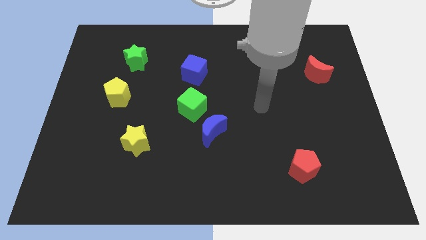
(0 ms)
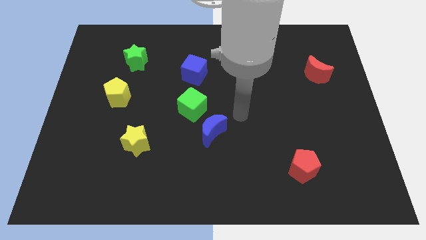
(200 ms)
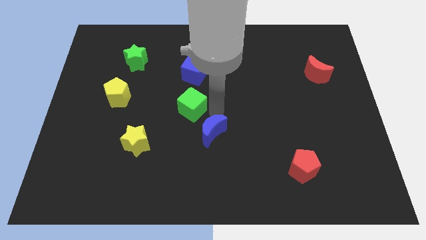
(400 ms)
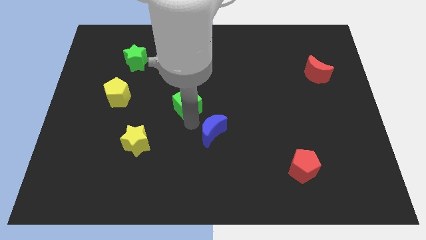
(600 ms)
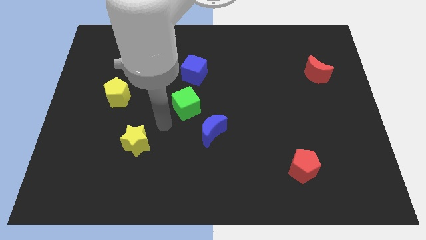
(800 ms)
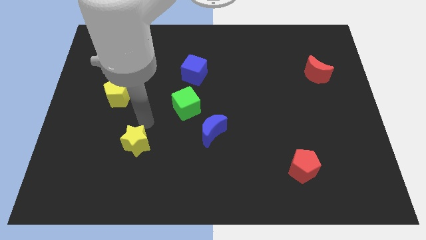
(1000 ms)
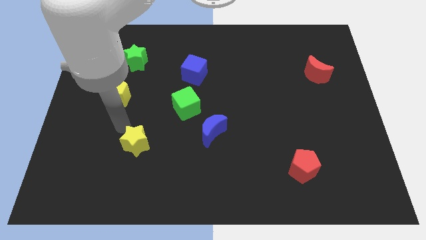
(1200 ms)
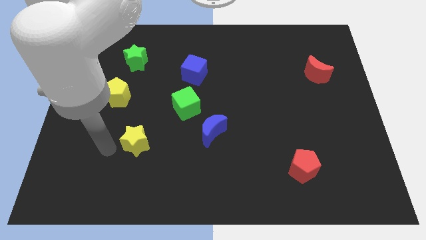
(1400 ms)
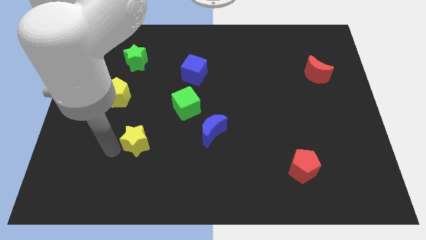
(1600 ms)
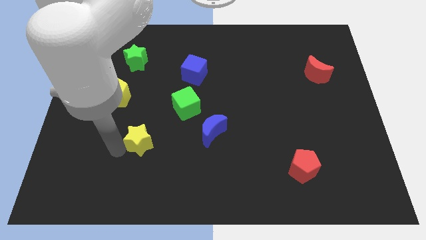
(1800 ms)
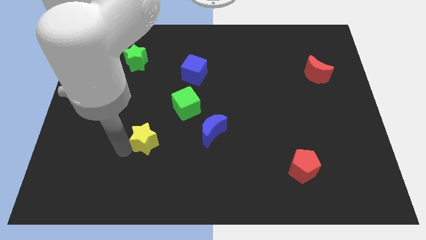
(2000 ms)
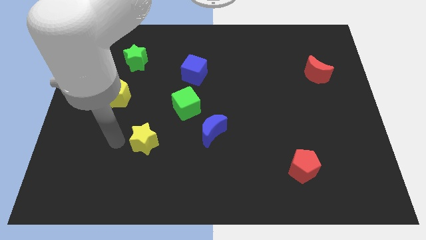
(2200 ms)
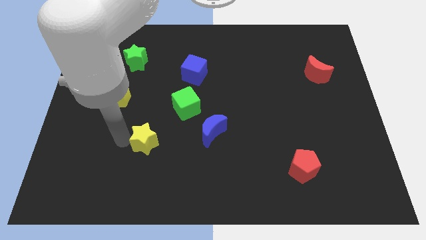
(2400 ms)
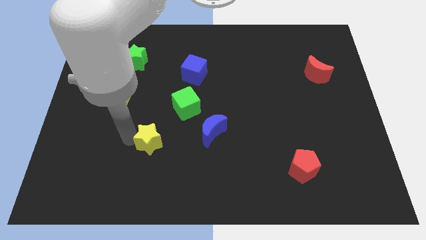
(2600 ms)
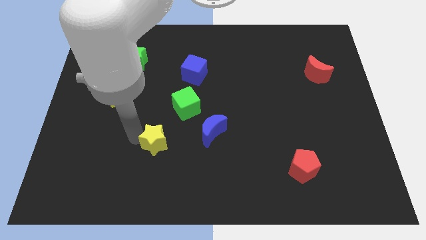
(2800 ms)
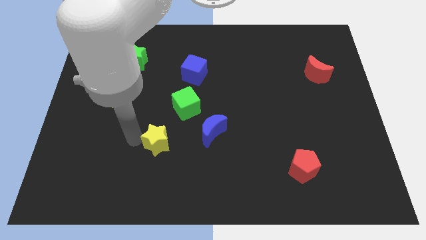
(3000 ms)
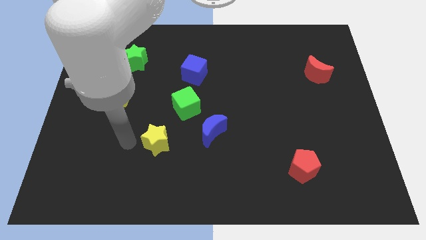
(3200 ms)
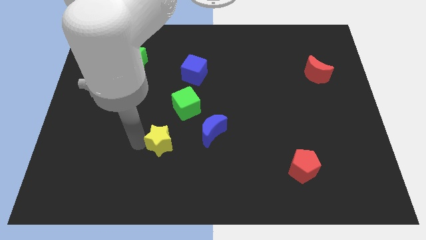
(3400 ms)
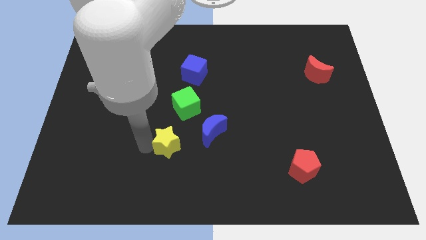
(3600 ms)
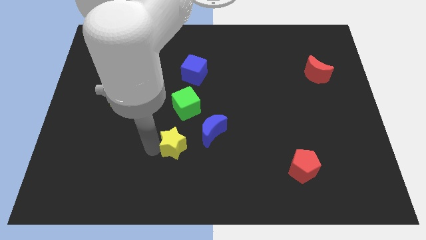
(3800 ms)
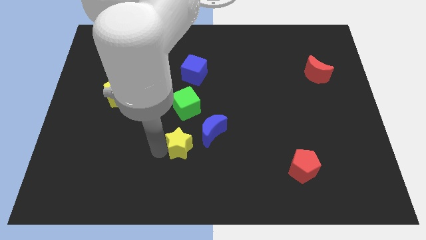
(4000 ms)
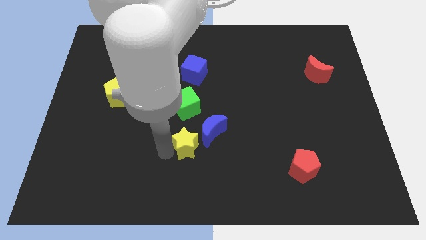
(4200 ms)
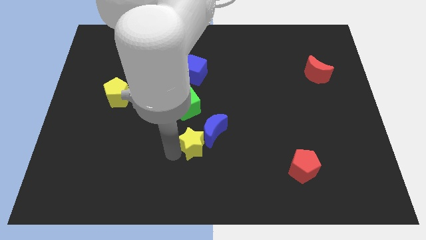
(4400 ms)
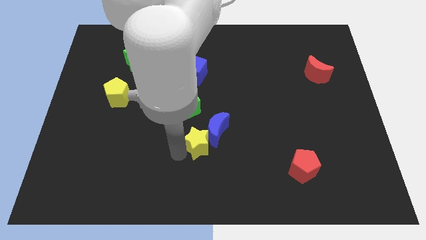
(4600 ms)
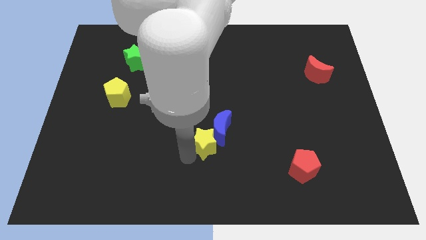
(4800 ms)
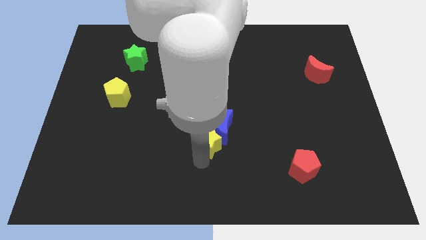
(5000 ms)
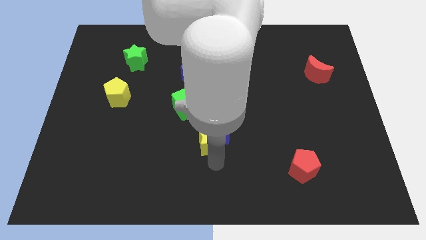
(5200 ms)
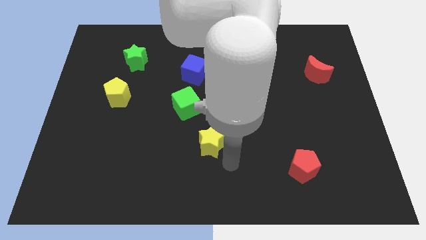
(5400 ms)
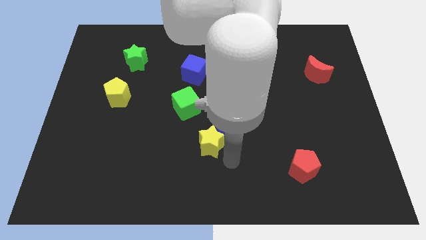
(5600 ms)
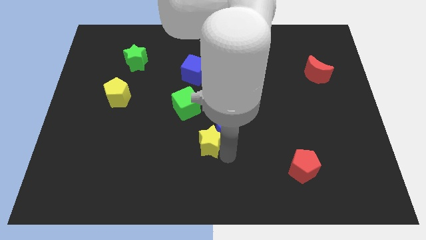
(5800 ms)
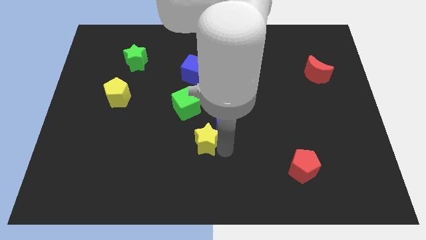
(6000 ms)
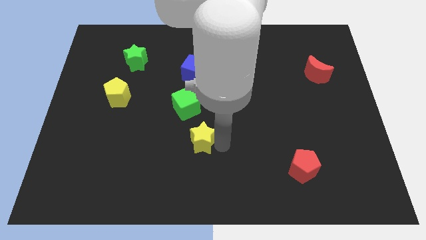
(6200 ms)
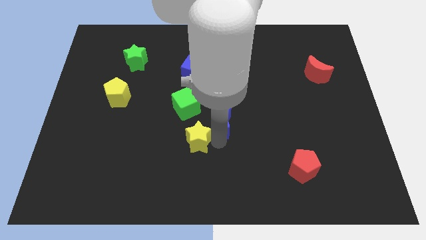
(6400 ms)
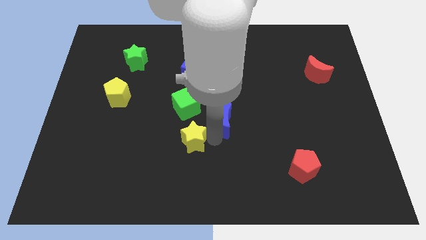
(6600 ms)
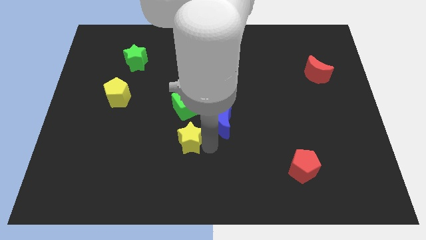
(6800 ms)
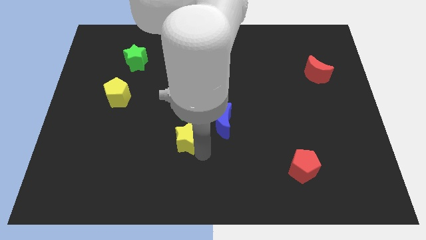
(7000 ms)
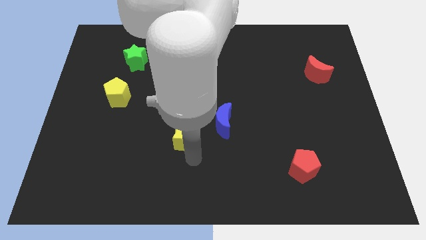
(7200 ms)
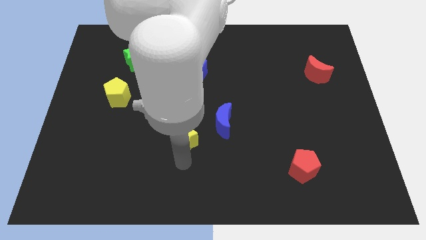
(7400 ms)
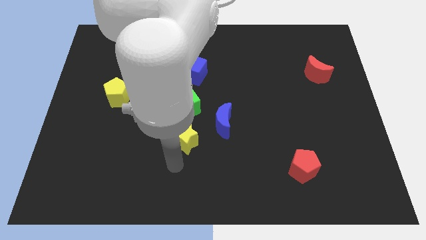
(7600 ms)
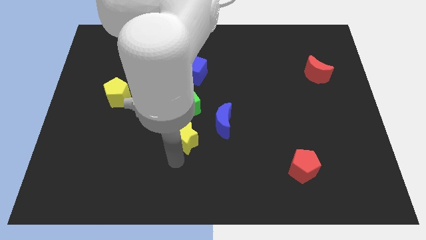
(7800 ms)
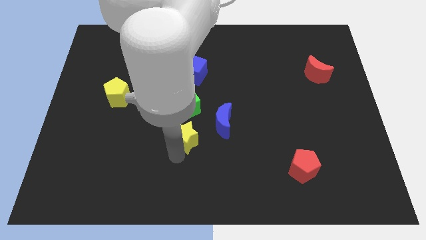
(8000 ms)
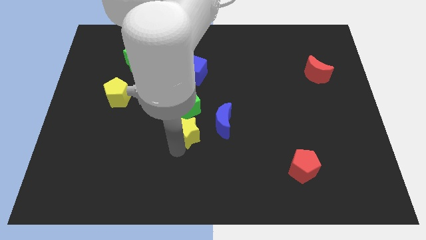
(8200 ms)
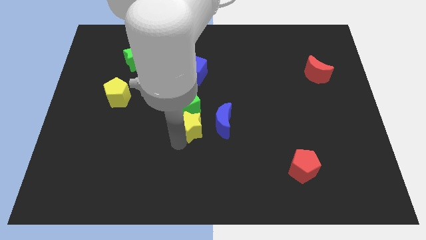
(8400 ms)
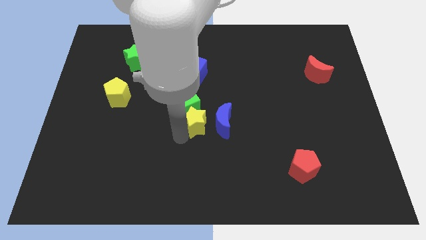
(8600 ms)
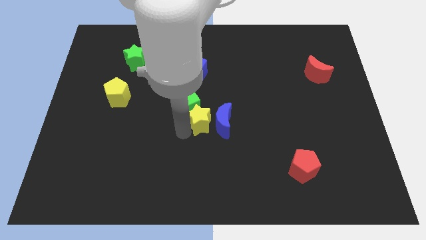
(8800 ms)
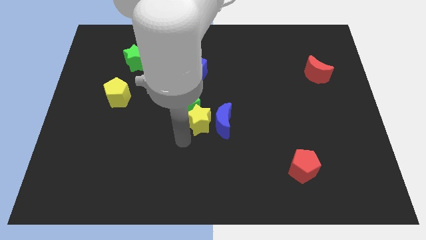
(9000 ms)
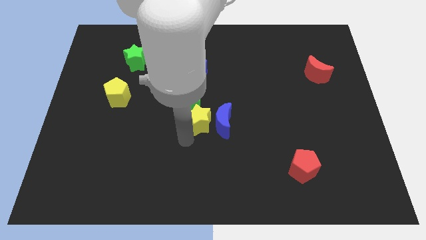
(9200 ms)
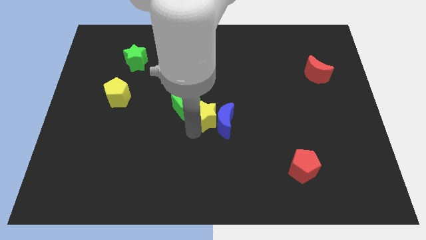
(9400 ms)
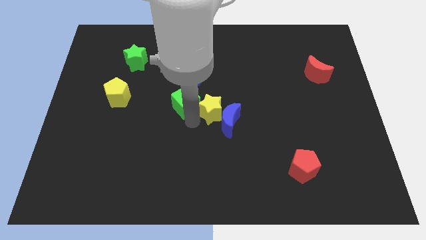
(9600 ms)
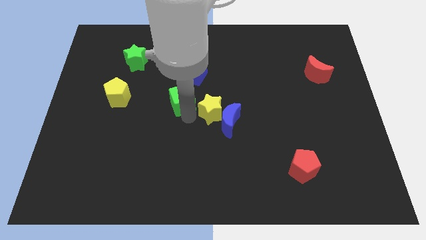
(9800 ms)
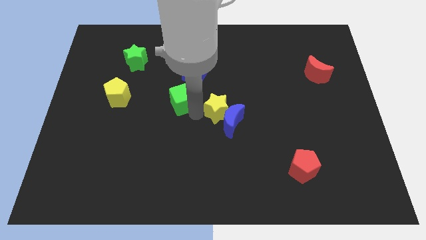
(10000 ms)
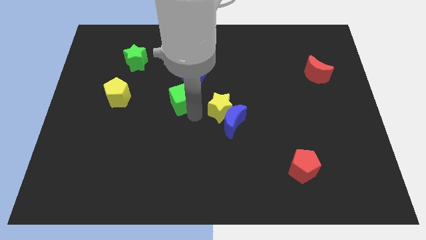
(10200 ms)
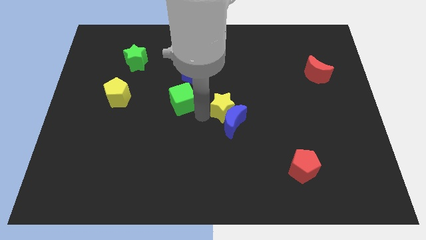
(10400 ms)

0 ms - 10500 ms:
put the yellow star to the top right side of the blue moon

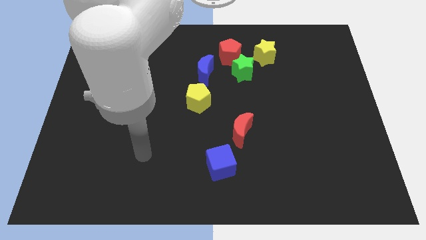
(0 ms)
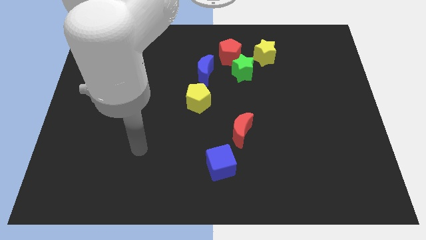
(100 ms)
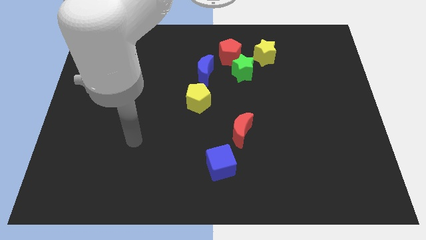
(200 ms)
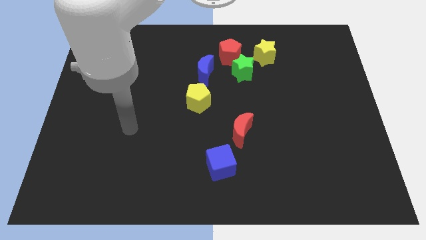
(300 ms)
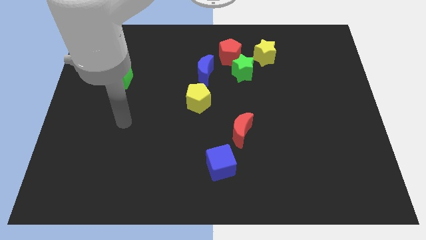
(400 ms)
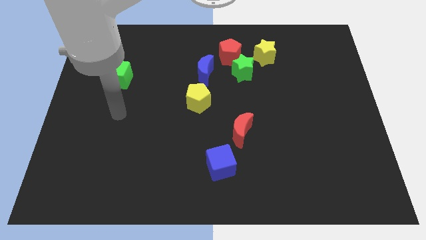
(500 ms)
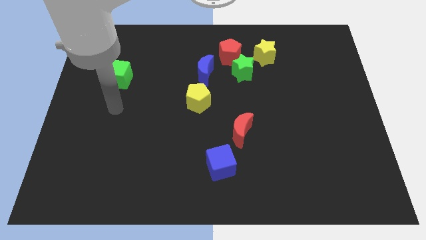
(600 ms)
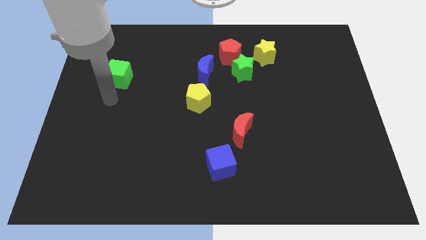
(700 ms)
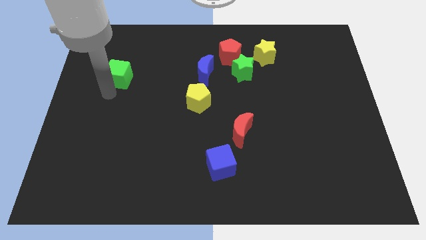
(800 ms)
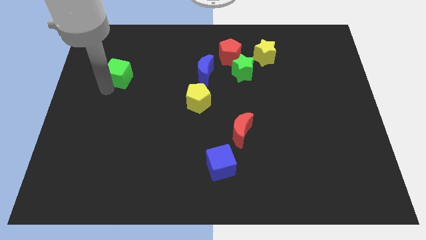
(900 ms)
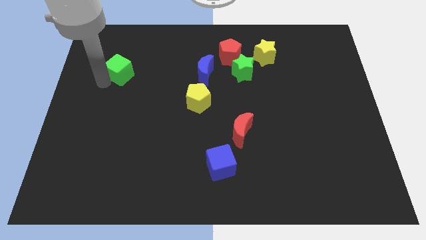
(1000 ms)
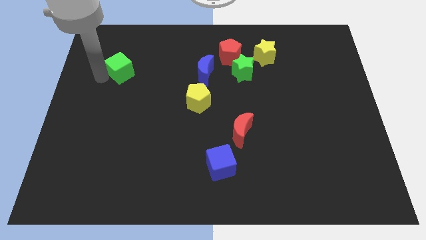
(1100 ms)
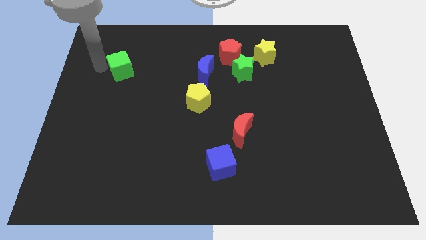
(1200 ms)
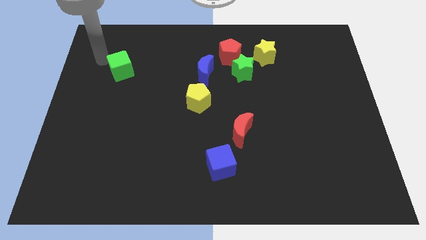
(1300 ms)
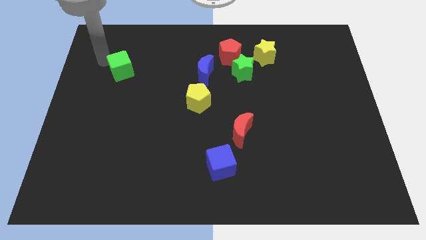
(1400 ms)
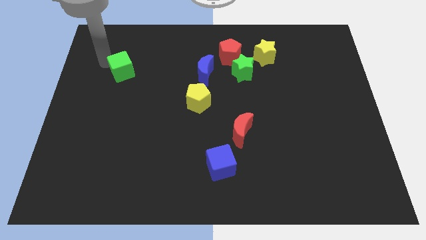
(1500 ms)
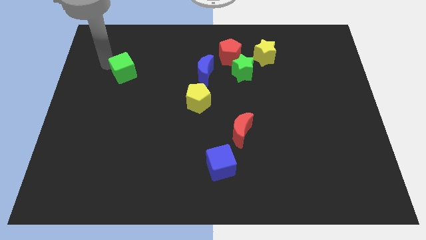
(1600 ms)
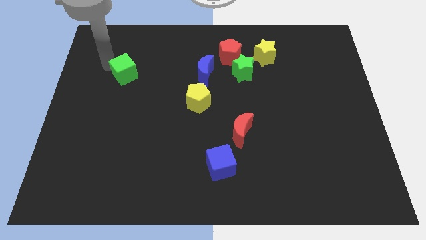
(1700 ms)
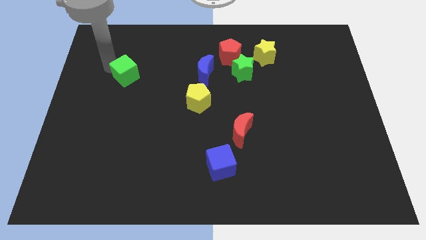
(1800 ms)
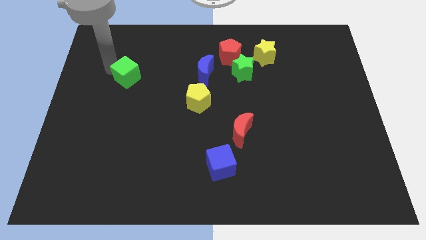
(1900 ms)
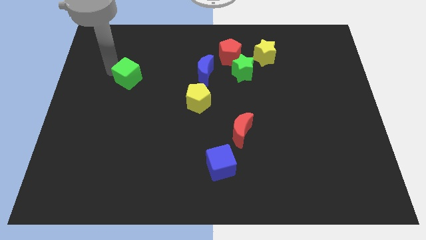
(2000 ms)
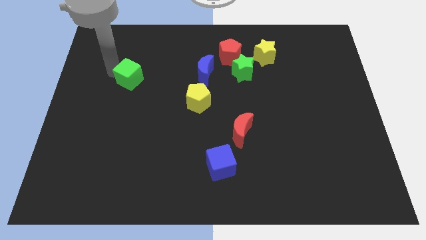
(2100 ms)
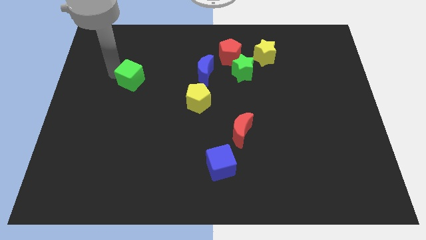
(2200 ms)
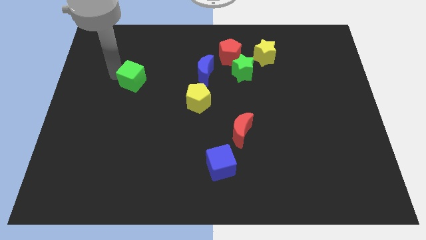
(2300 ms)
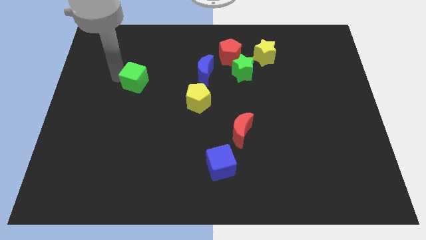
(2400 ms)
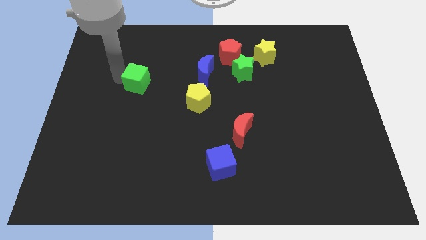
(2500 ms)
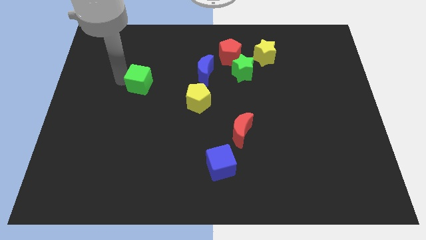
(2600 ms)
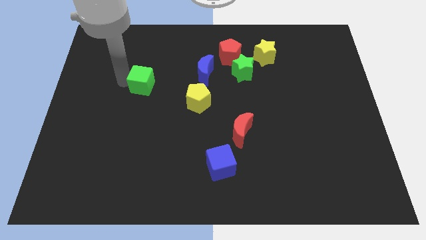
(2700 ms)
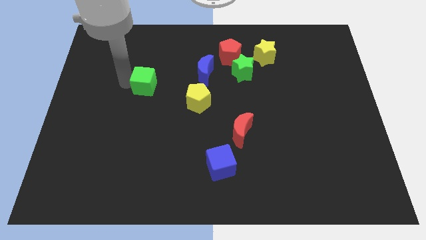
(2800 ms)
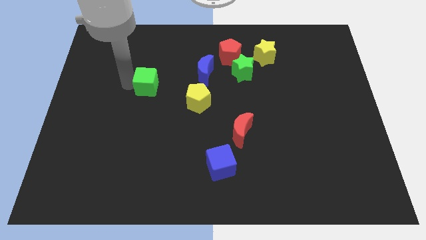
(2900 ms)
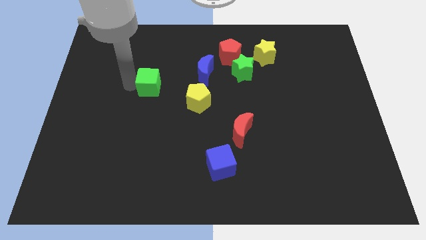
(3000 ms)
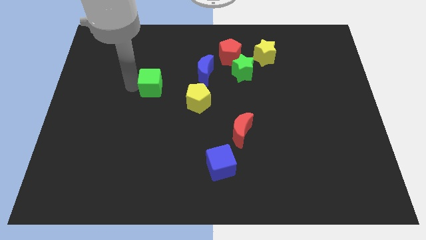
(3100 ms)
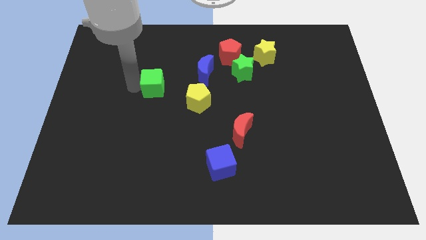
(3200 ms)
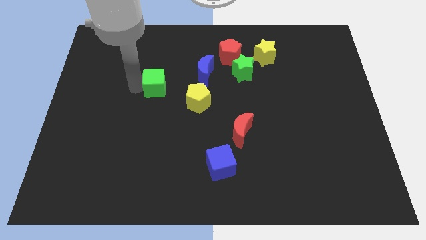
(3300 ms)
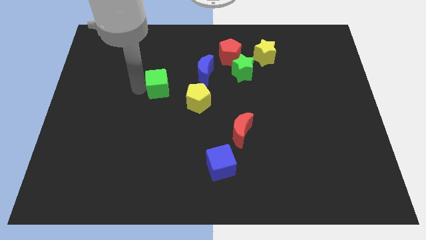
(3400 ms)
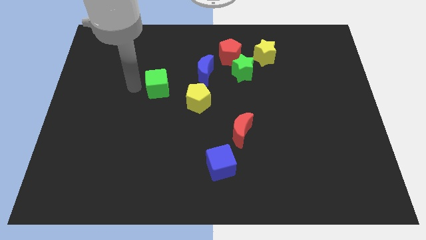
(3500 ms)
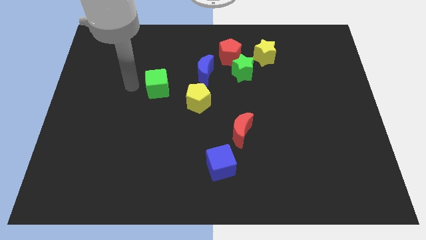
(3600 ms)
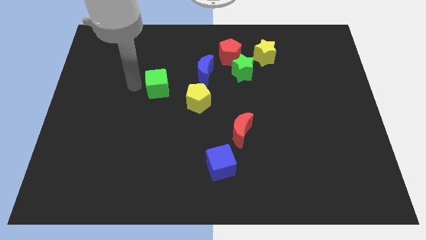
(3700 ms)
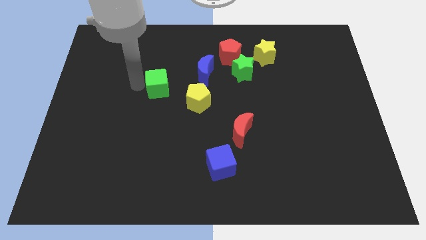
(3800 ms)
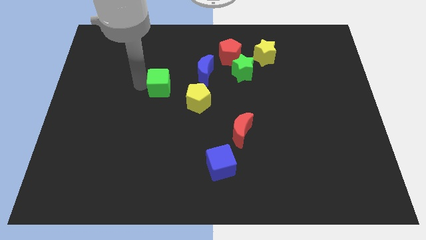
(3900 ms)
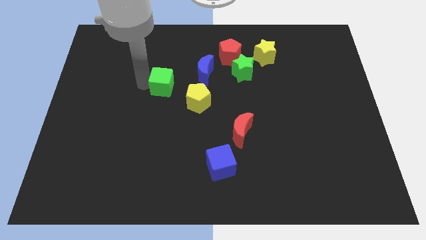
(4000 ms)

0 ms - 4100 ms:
slide the green cube diagonally down and to the left of the blue moon
